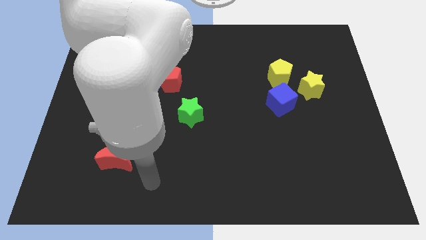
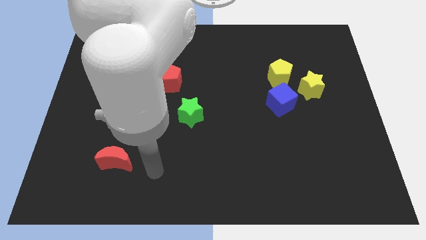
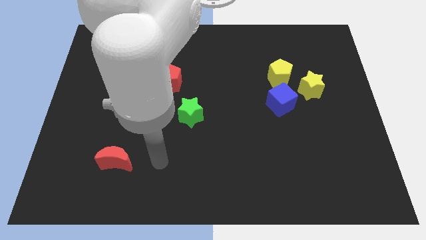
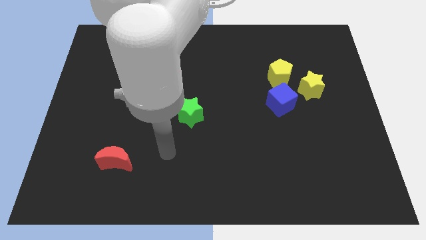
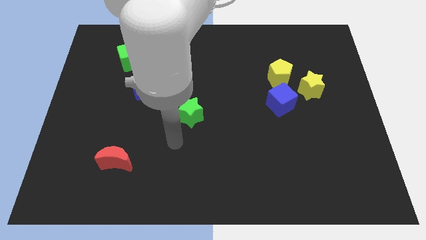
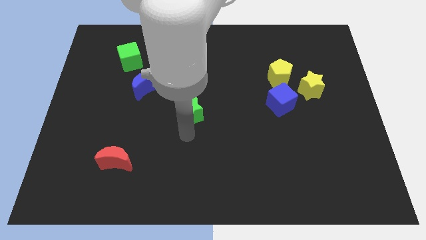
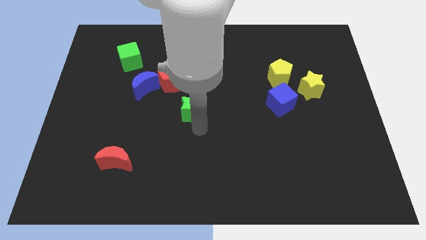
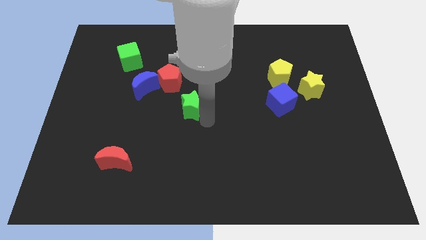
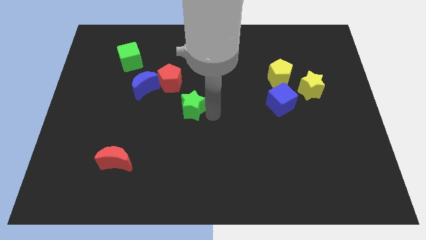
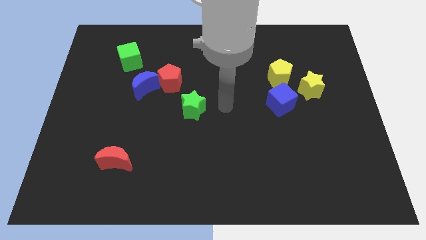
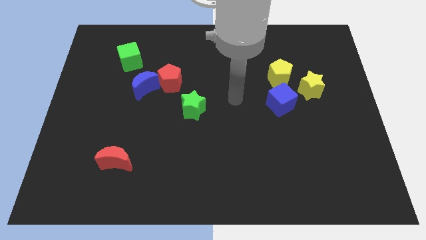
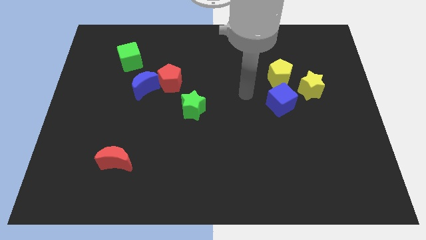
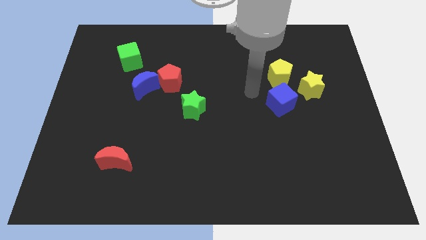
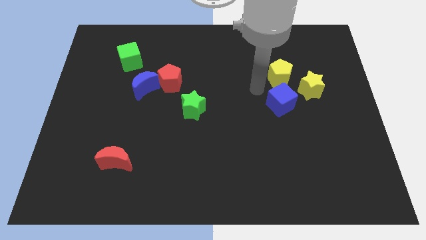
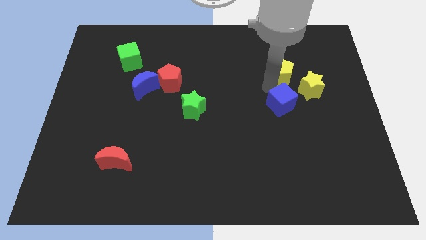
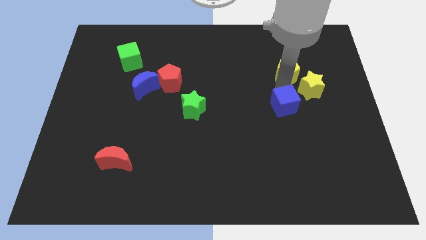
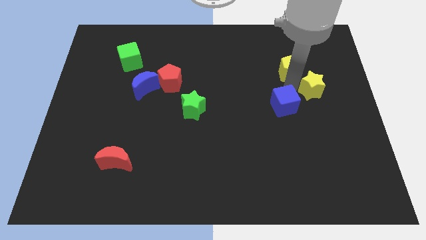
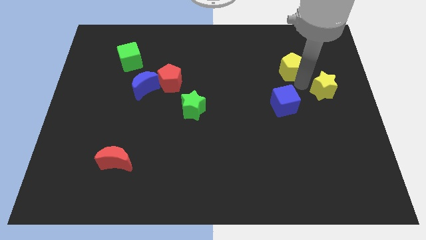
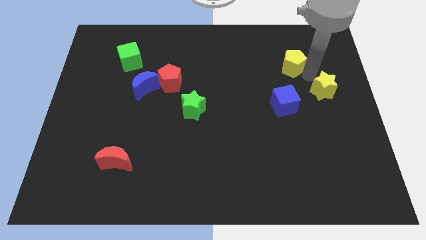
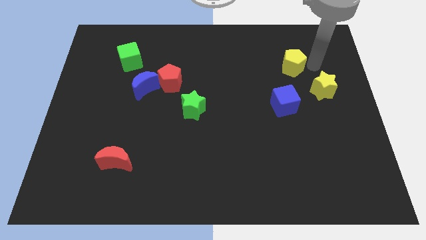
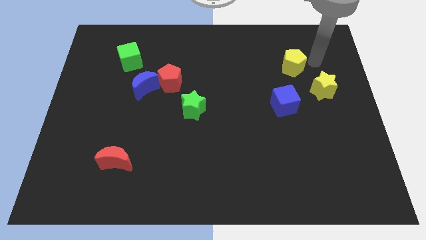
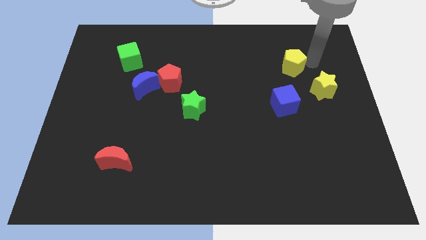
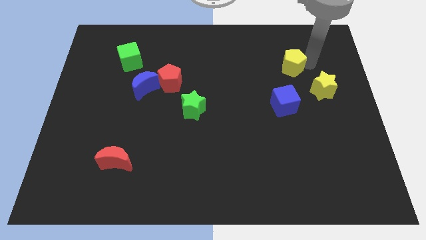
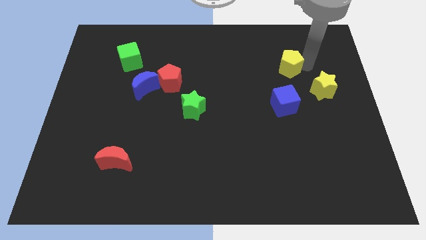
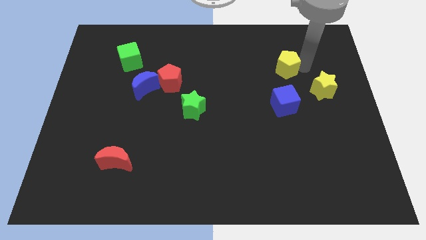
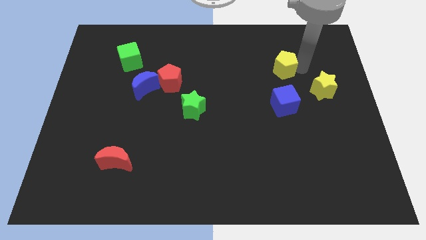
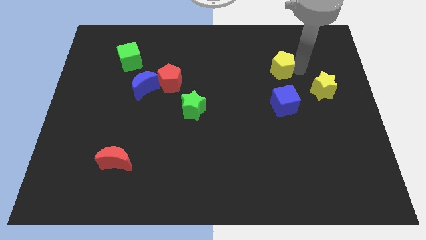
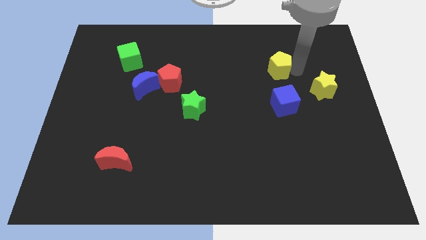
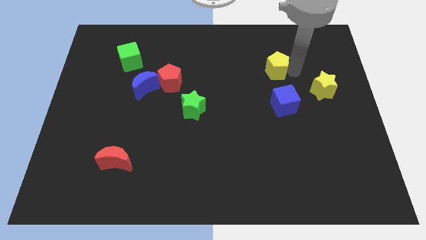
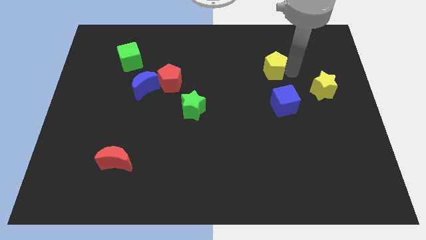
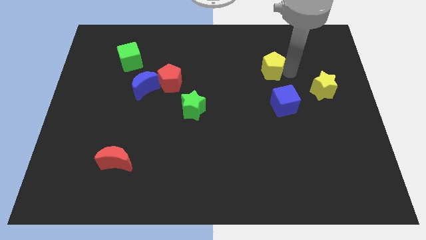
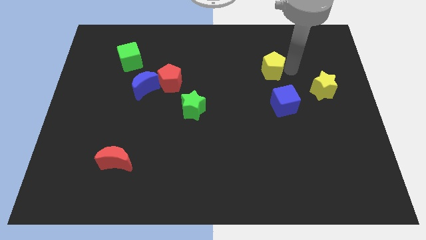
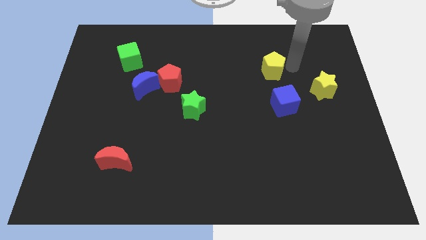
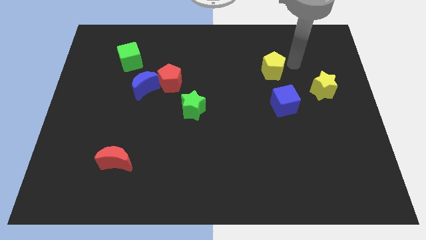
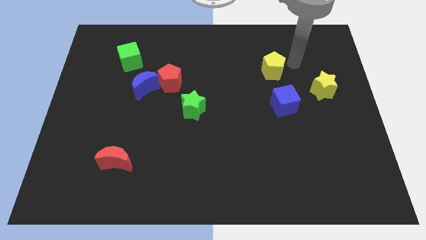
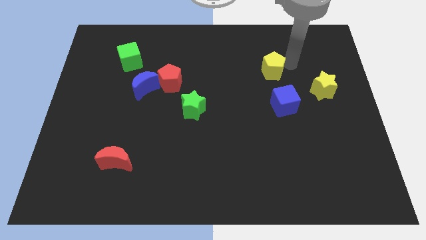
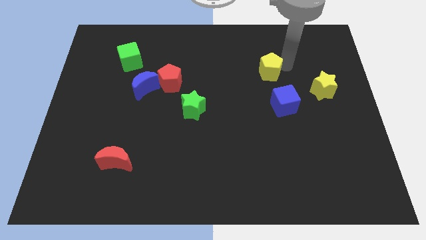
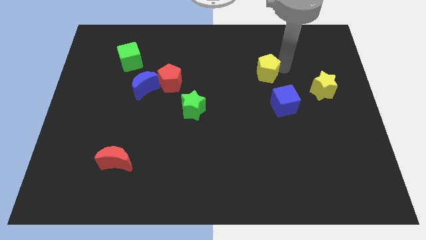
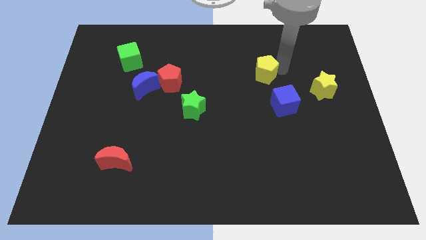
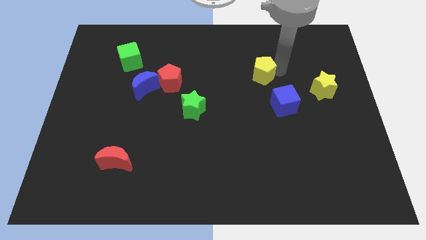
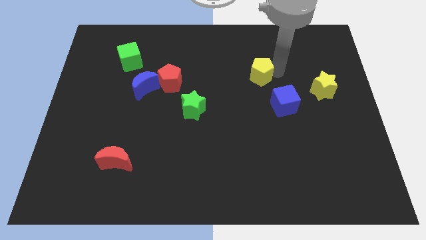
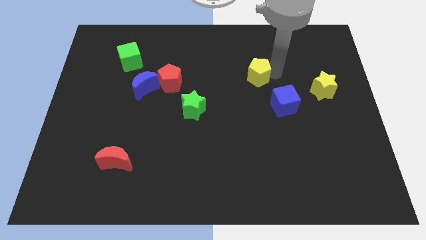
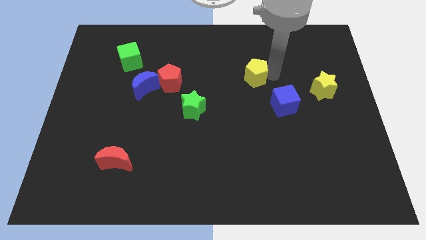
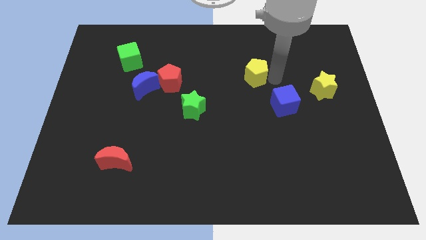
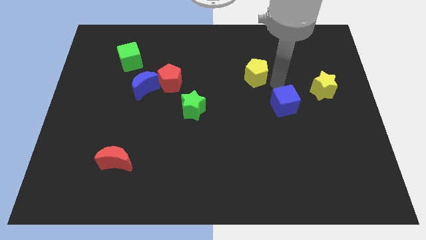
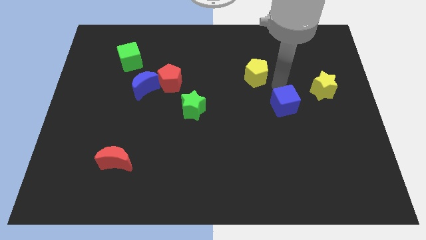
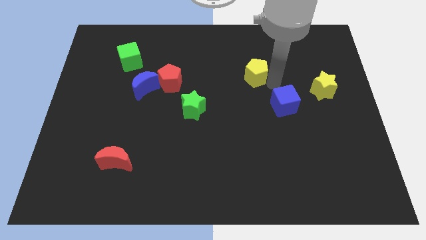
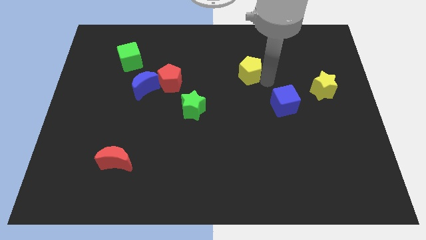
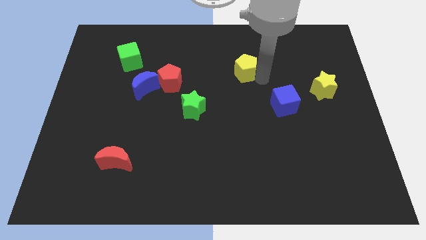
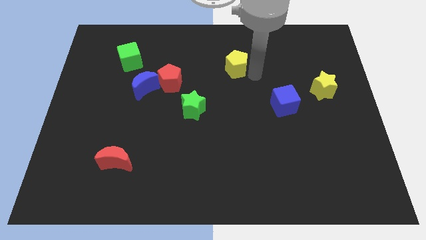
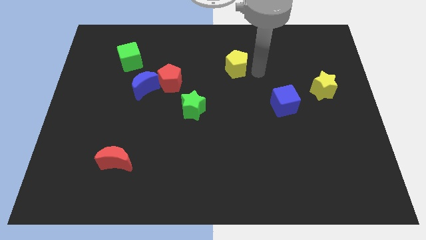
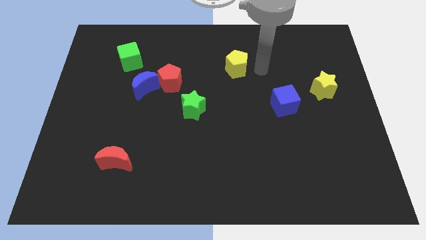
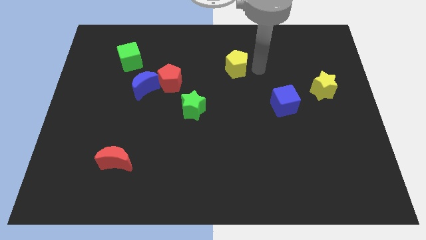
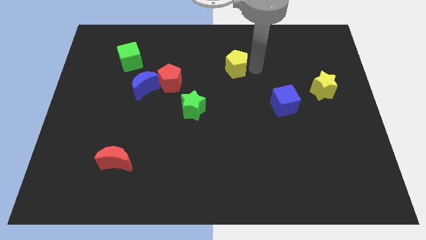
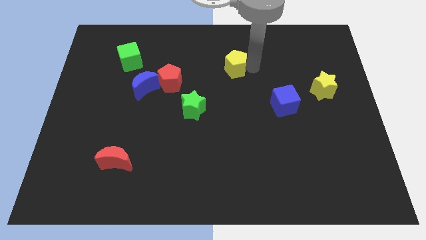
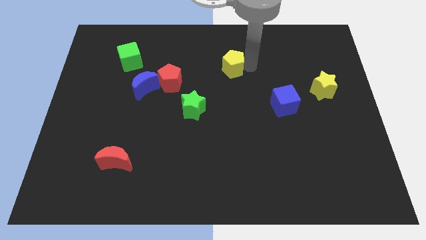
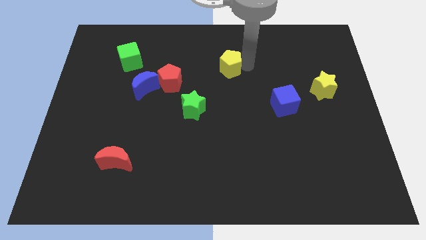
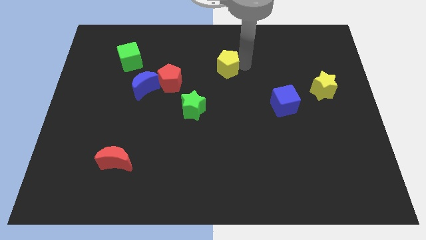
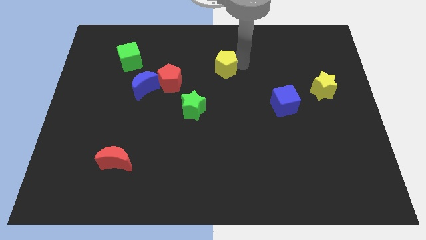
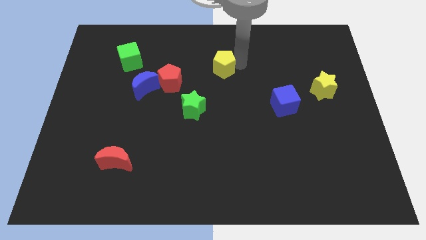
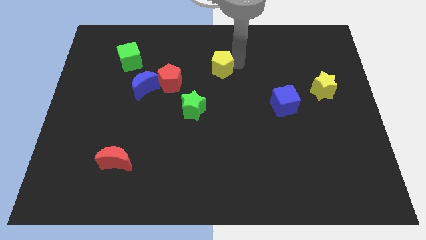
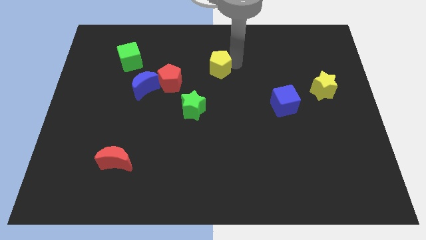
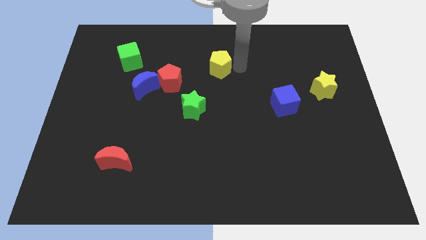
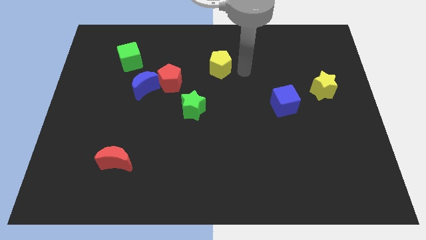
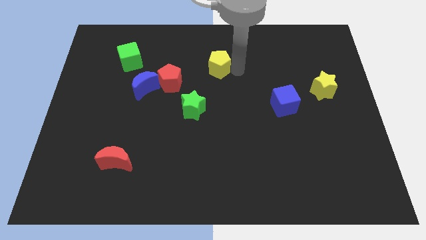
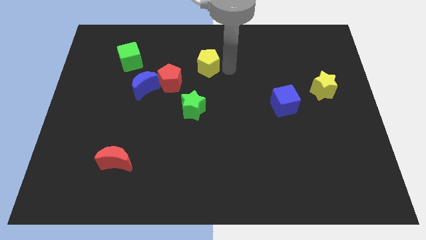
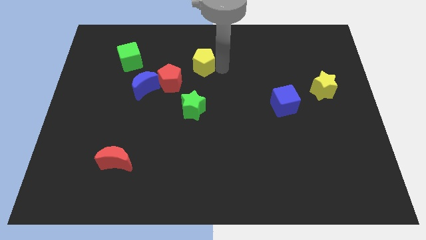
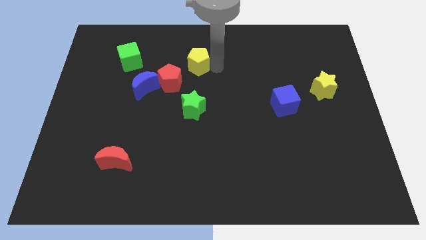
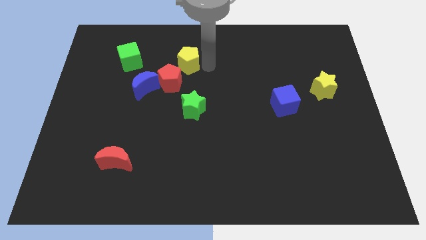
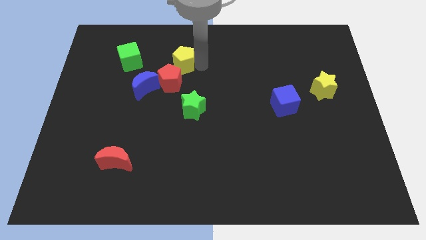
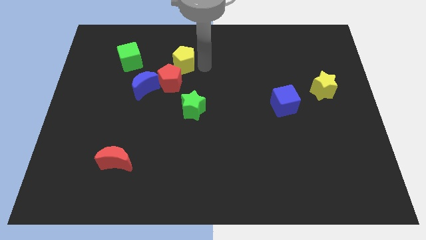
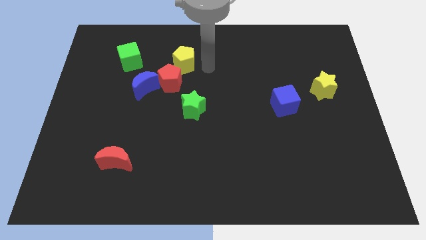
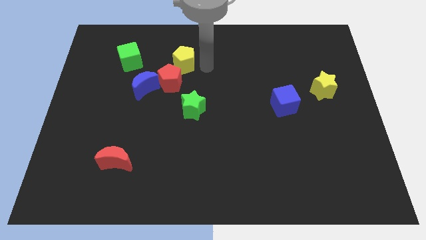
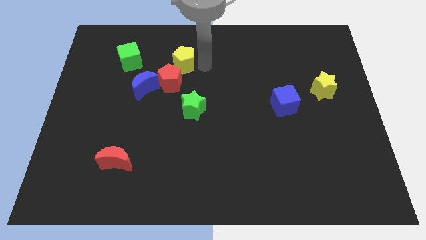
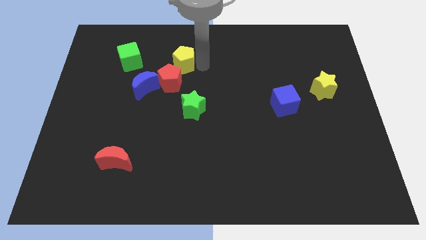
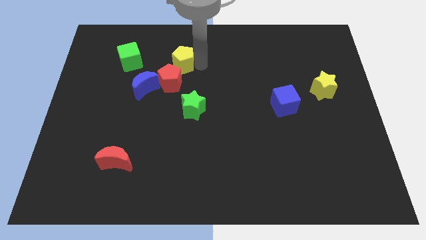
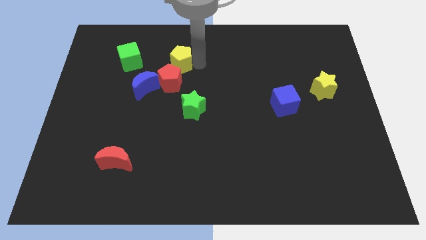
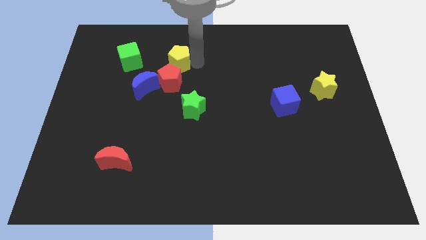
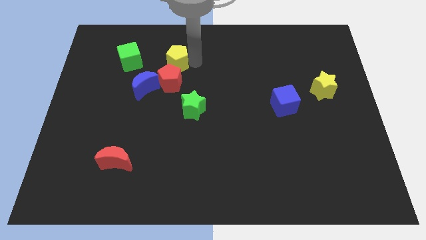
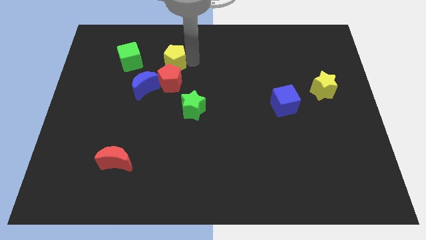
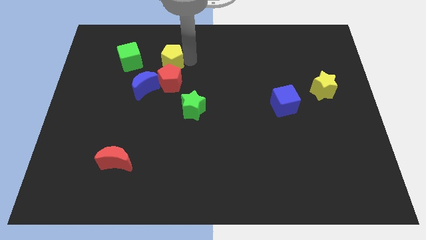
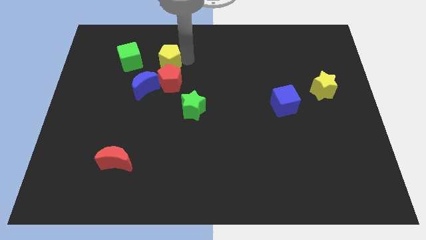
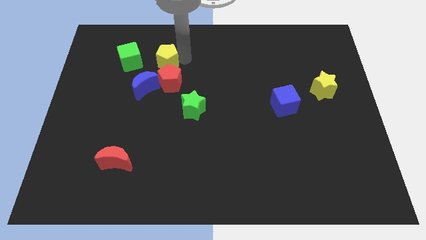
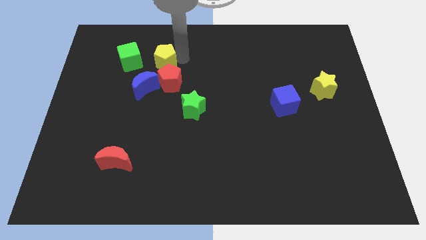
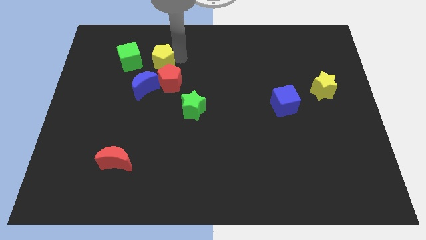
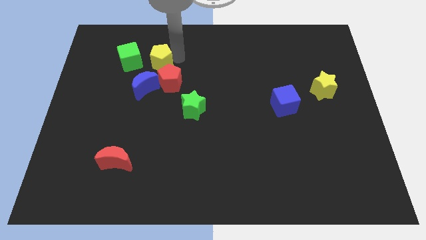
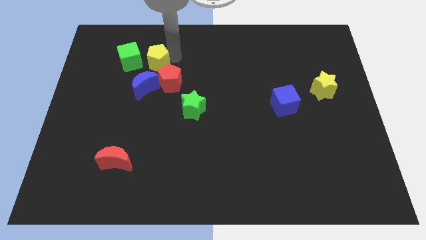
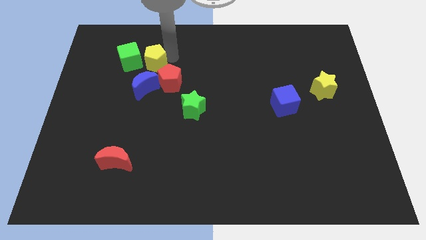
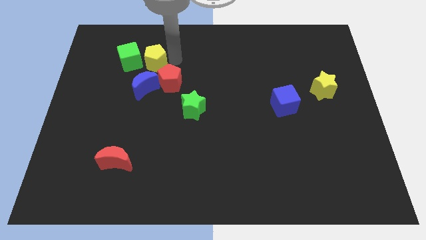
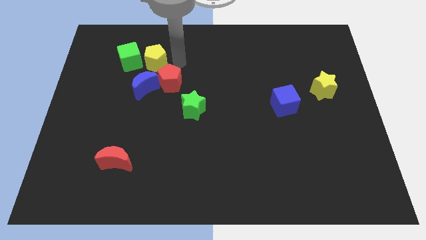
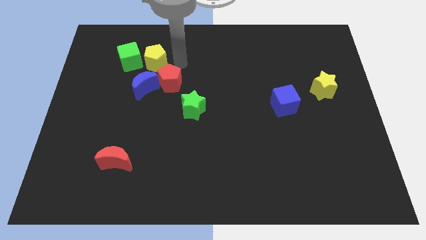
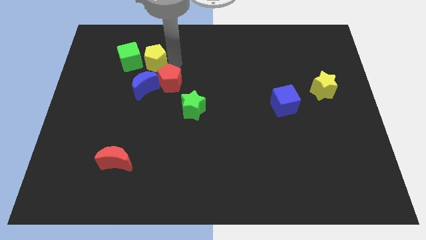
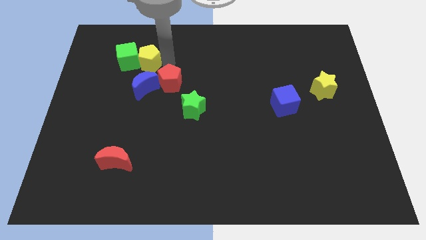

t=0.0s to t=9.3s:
move the yellow pentagon to the green cube
